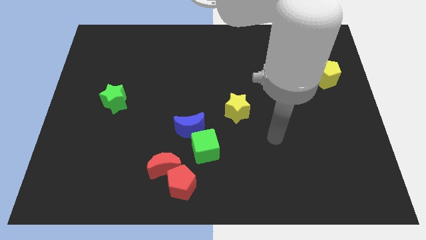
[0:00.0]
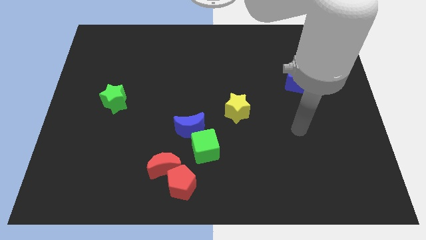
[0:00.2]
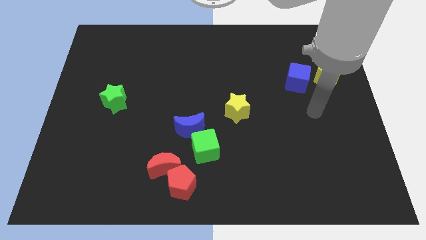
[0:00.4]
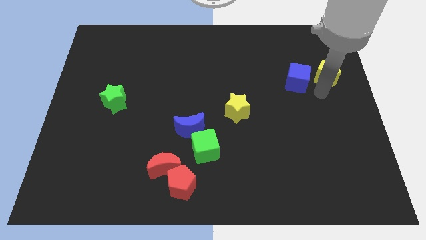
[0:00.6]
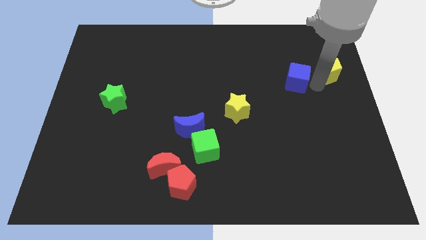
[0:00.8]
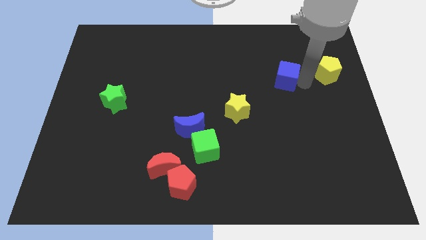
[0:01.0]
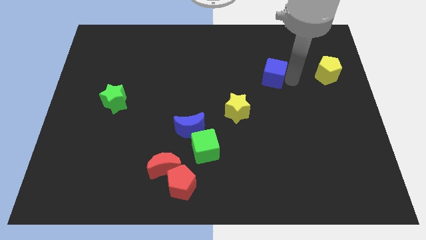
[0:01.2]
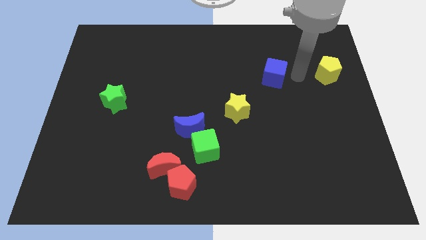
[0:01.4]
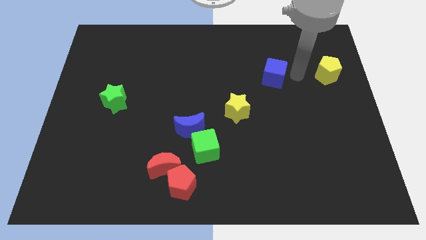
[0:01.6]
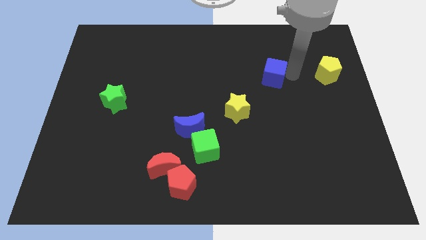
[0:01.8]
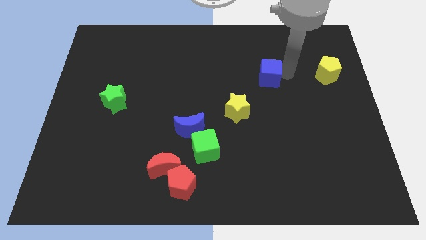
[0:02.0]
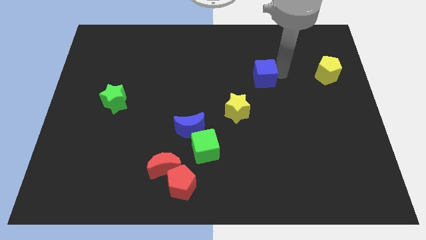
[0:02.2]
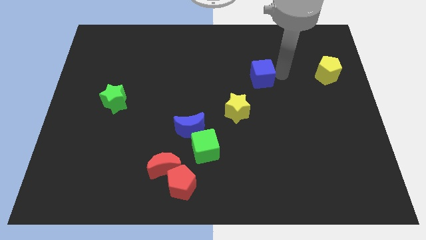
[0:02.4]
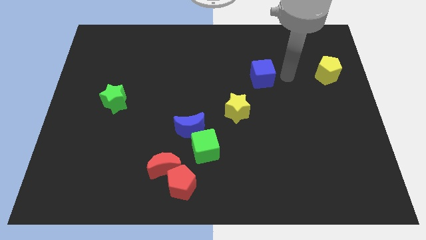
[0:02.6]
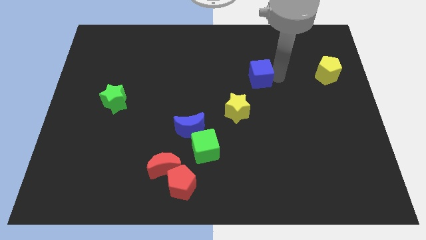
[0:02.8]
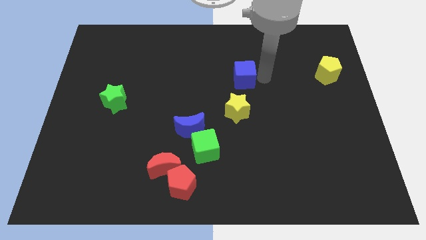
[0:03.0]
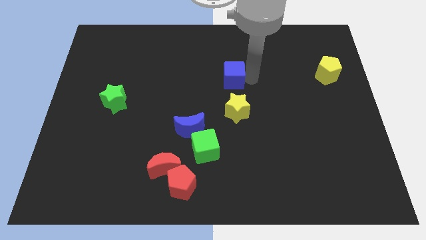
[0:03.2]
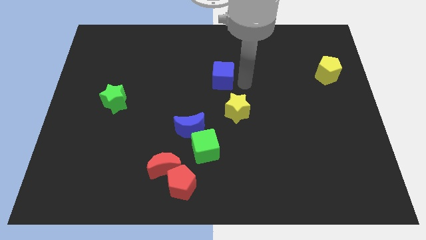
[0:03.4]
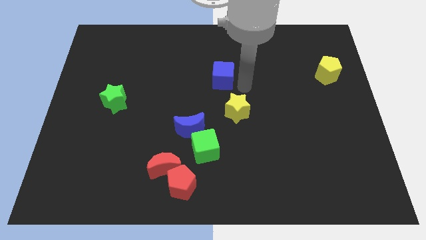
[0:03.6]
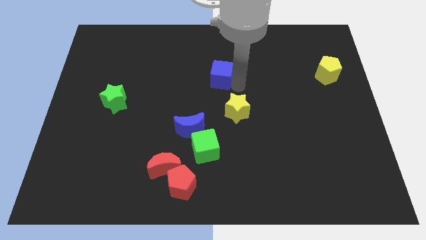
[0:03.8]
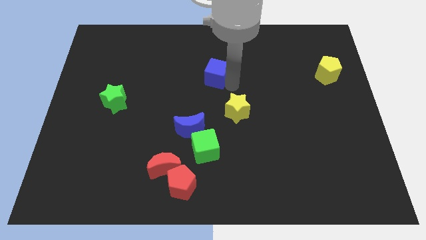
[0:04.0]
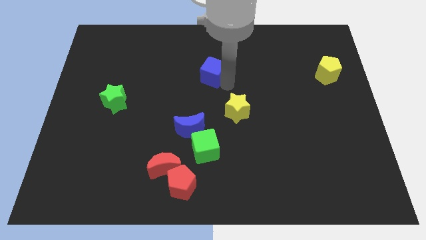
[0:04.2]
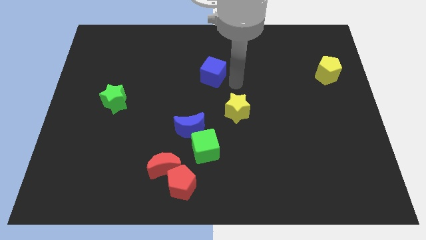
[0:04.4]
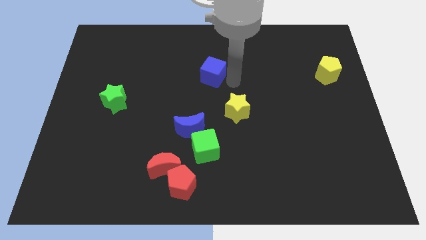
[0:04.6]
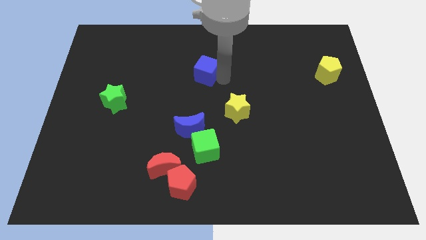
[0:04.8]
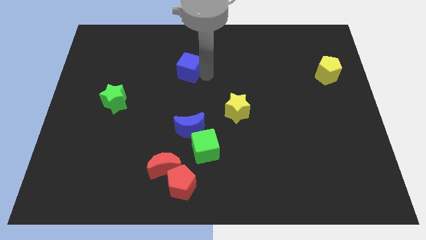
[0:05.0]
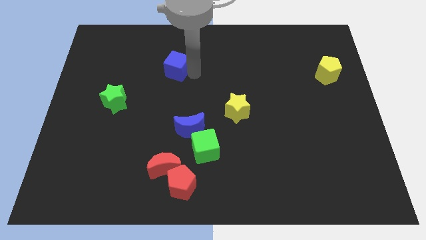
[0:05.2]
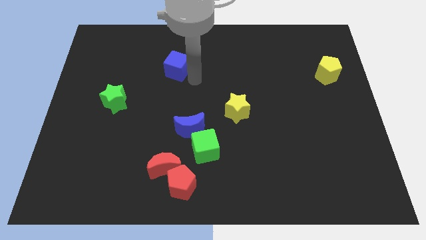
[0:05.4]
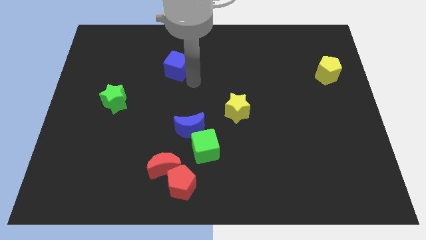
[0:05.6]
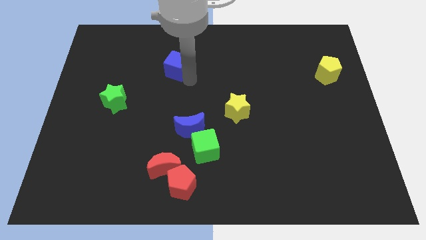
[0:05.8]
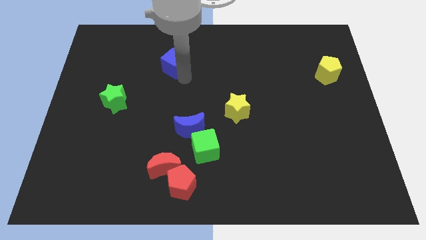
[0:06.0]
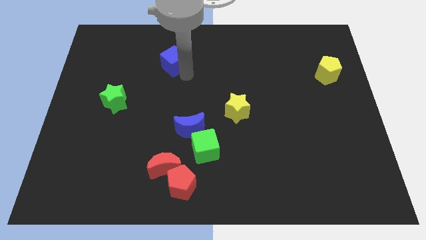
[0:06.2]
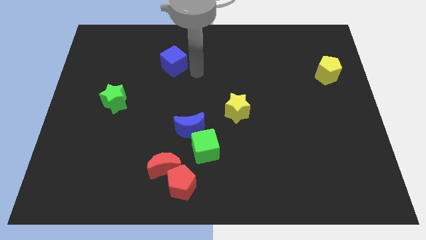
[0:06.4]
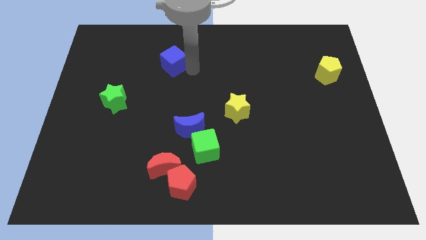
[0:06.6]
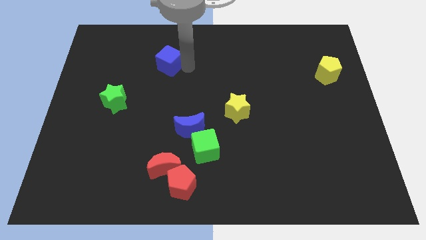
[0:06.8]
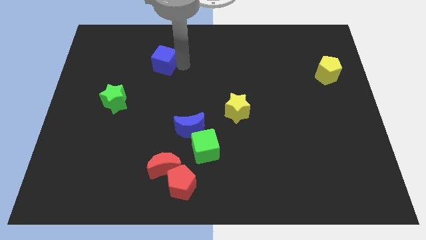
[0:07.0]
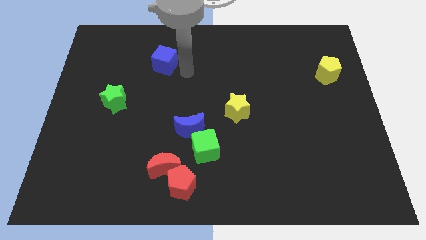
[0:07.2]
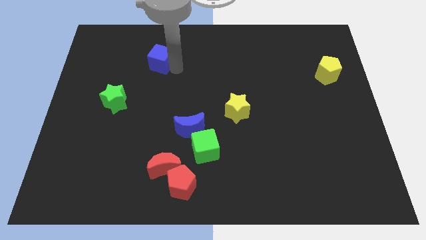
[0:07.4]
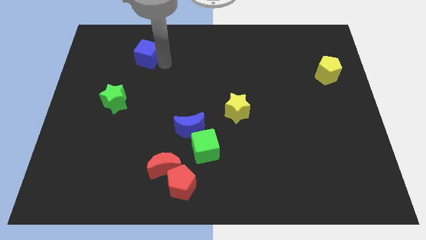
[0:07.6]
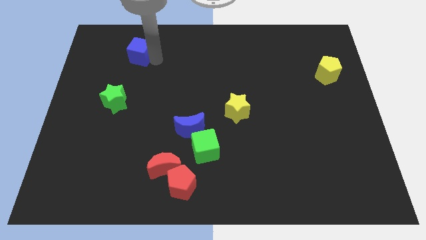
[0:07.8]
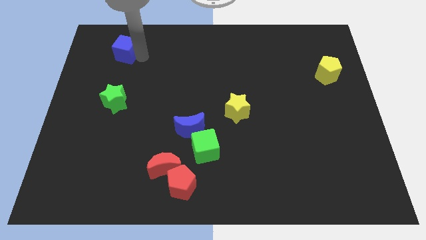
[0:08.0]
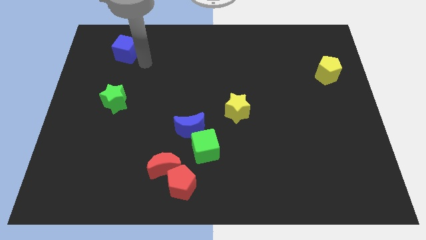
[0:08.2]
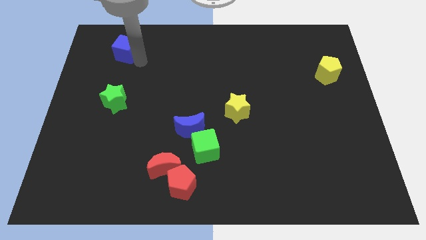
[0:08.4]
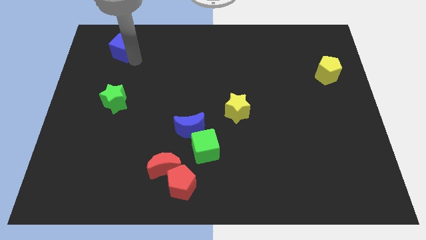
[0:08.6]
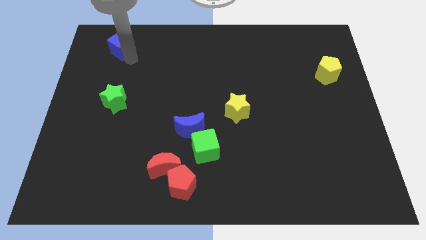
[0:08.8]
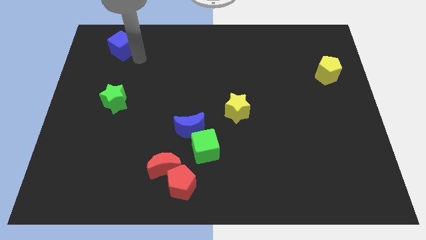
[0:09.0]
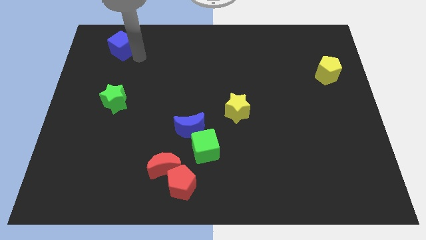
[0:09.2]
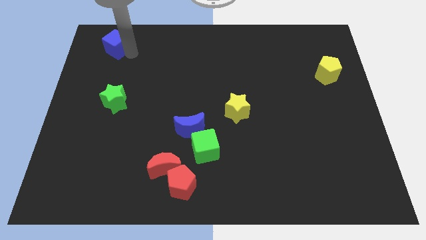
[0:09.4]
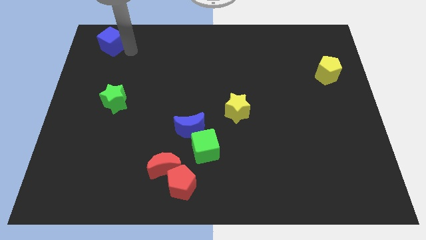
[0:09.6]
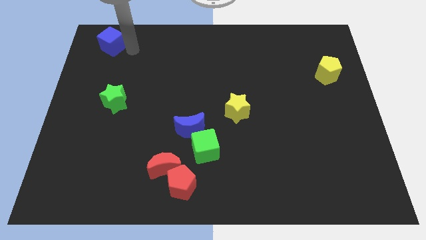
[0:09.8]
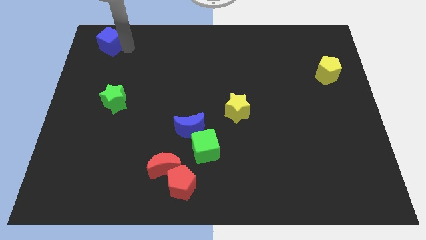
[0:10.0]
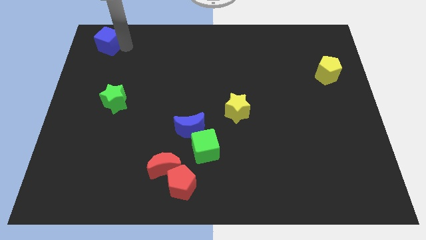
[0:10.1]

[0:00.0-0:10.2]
slide the blue cube to the top left corner

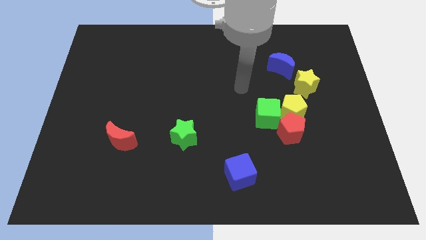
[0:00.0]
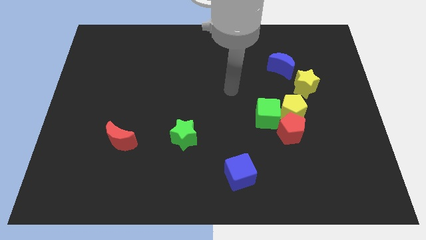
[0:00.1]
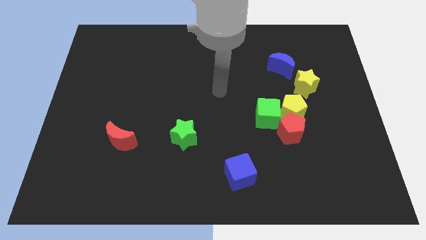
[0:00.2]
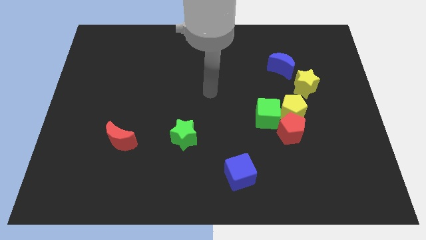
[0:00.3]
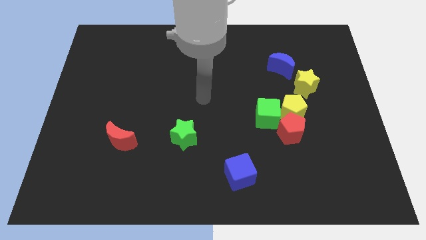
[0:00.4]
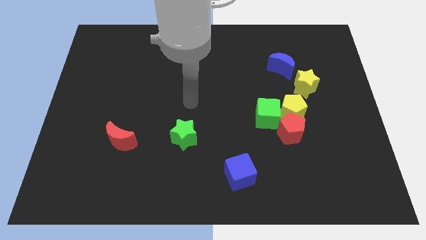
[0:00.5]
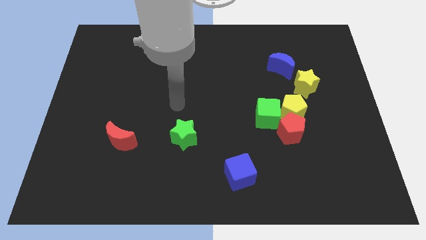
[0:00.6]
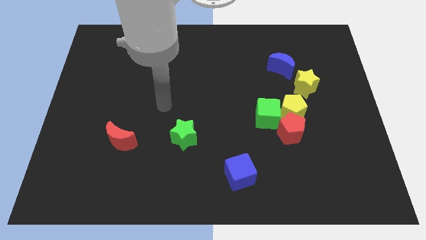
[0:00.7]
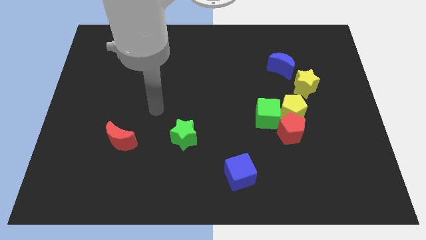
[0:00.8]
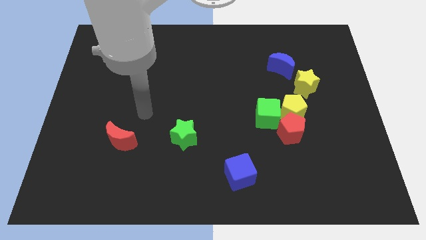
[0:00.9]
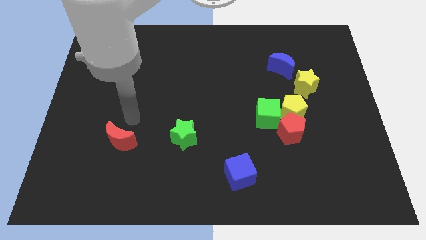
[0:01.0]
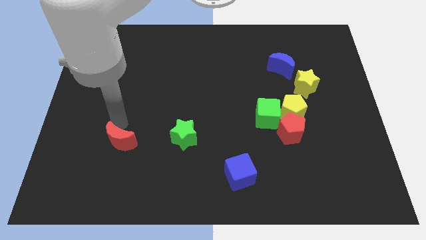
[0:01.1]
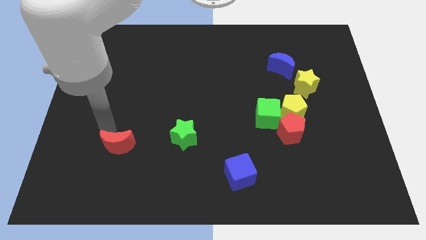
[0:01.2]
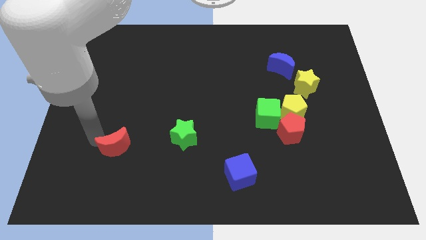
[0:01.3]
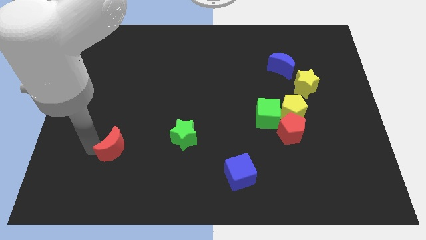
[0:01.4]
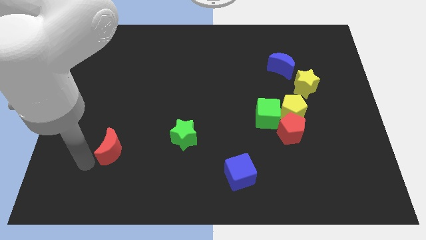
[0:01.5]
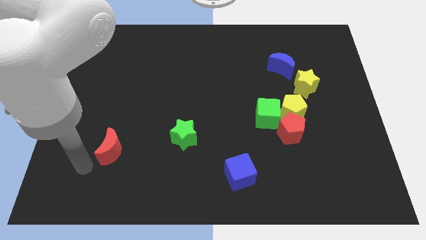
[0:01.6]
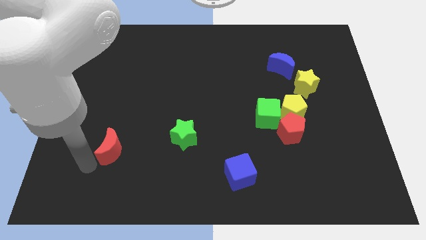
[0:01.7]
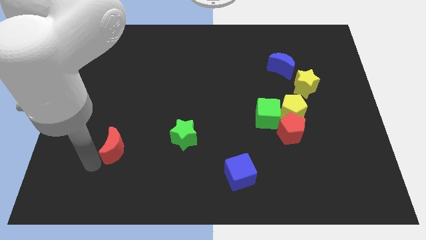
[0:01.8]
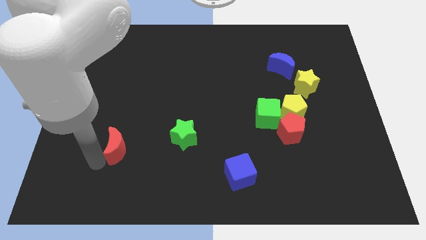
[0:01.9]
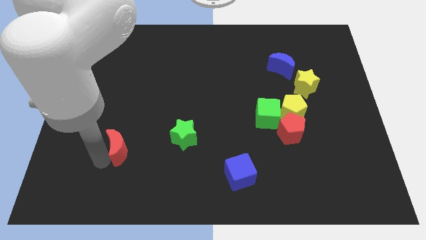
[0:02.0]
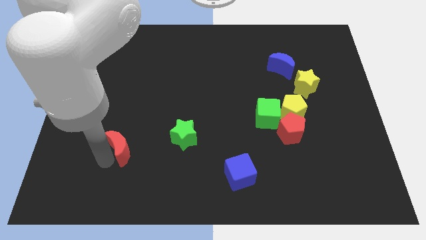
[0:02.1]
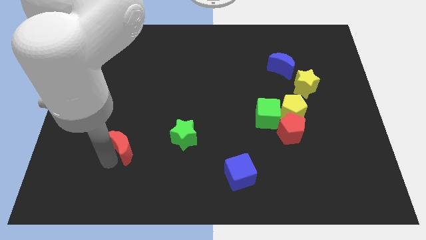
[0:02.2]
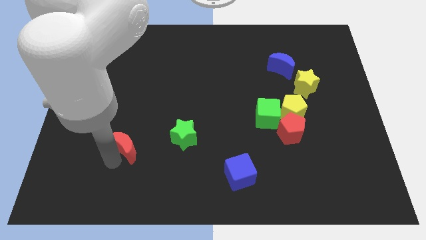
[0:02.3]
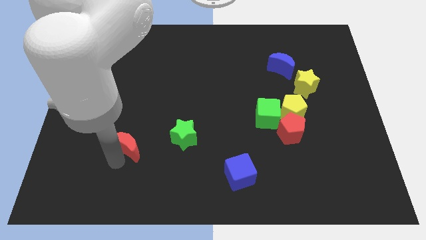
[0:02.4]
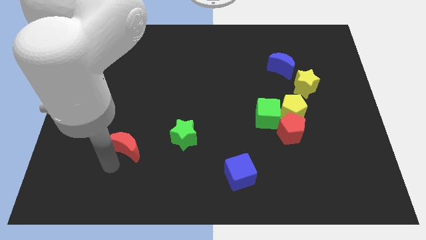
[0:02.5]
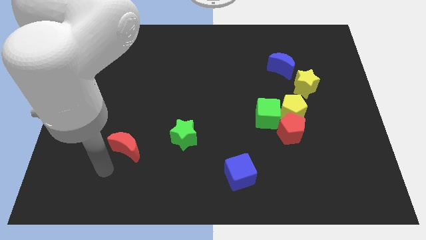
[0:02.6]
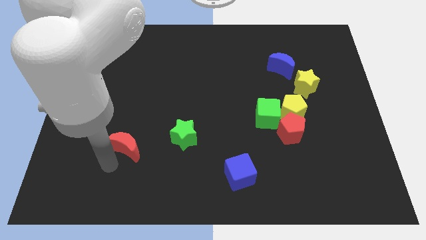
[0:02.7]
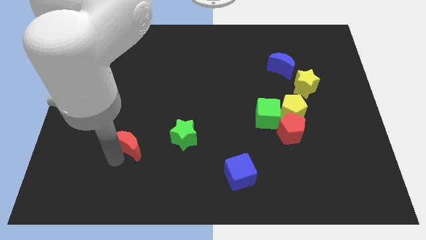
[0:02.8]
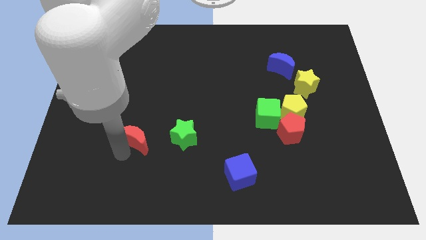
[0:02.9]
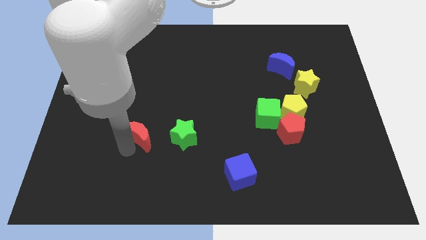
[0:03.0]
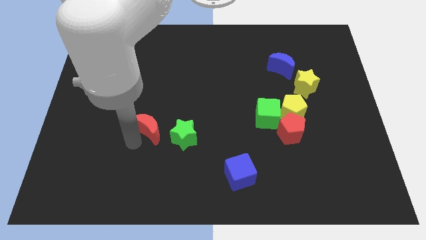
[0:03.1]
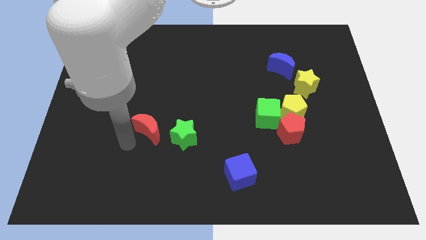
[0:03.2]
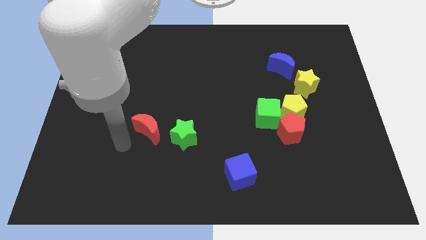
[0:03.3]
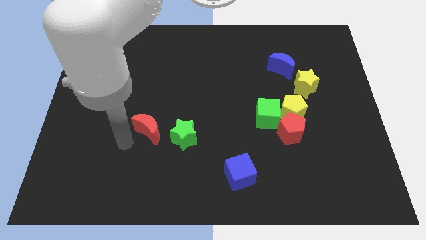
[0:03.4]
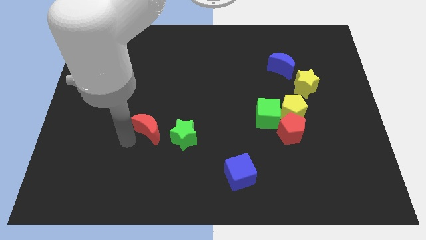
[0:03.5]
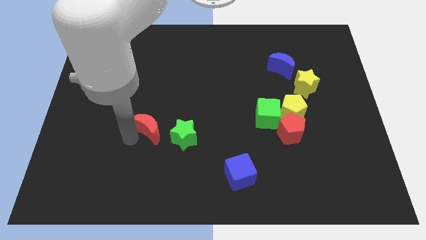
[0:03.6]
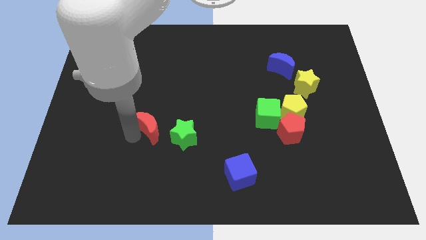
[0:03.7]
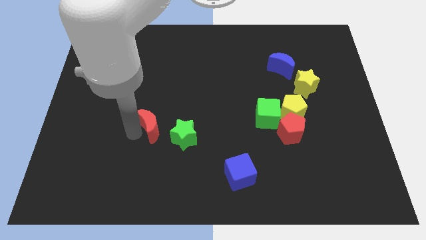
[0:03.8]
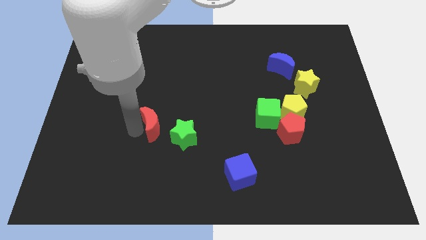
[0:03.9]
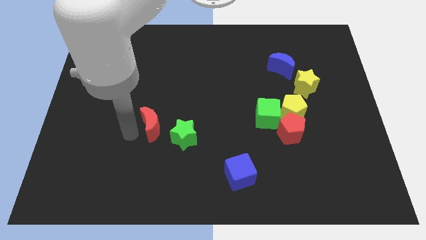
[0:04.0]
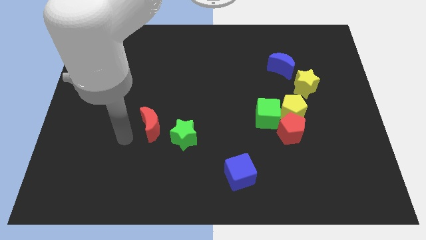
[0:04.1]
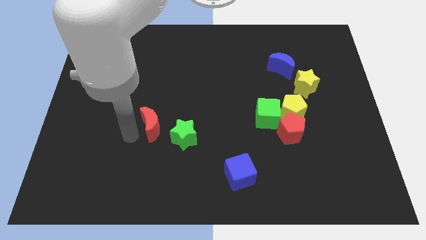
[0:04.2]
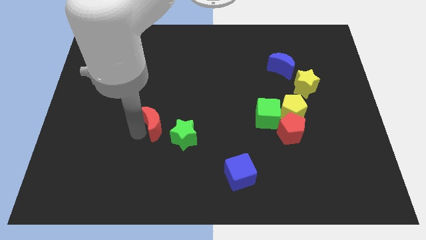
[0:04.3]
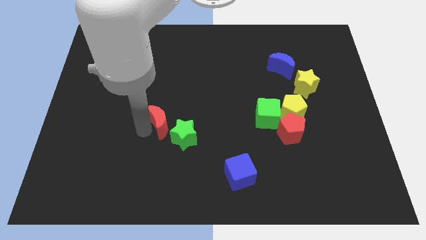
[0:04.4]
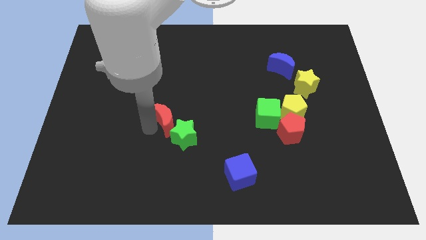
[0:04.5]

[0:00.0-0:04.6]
put the red moon to the center
